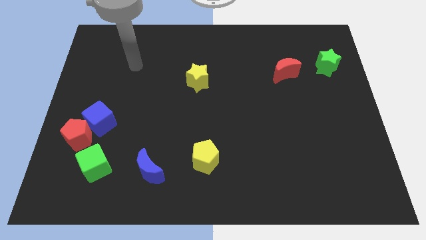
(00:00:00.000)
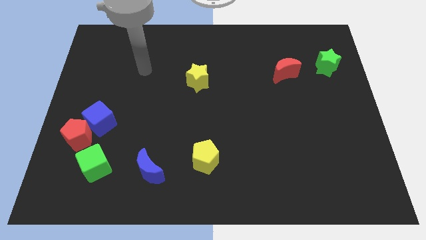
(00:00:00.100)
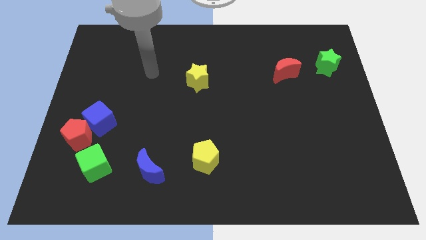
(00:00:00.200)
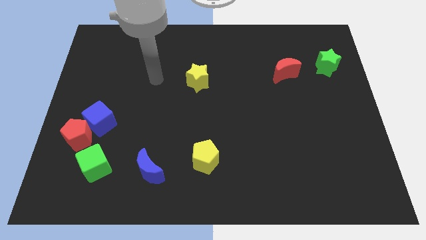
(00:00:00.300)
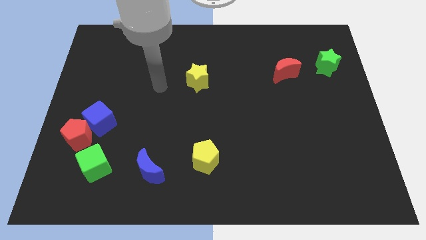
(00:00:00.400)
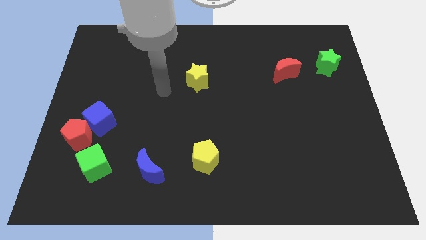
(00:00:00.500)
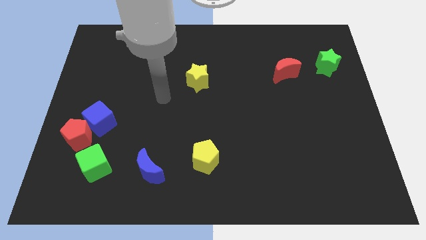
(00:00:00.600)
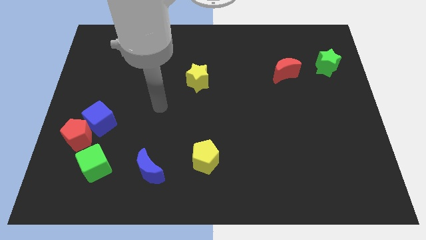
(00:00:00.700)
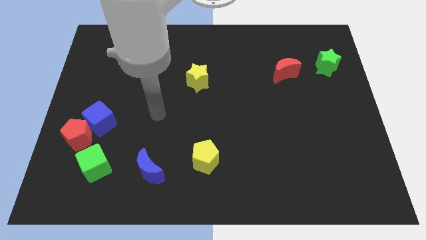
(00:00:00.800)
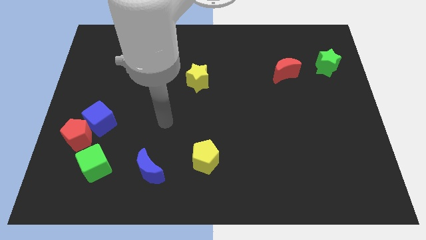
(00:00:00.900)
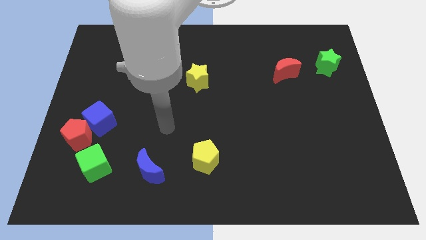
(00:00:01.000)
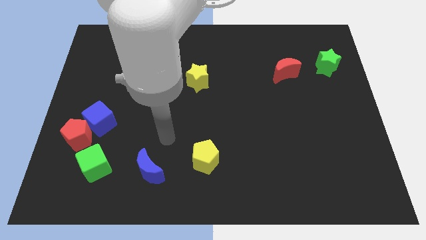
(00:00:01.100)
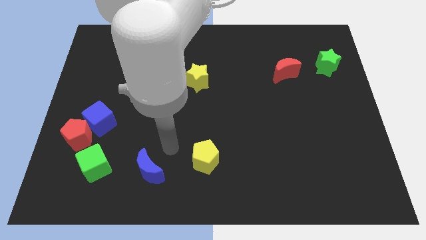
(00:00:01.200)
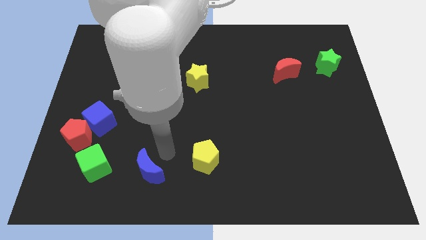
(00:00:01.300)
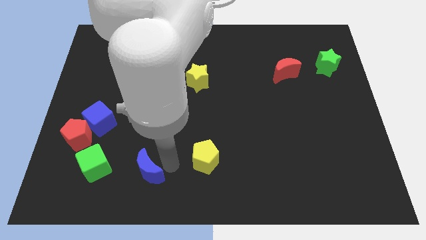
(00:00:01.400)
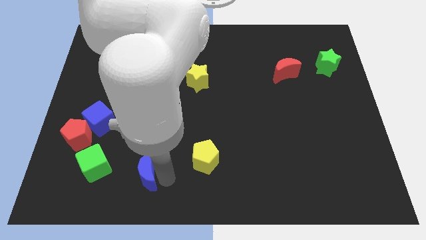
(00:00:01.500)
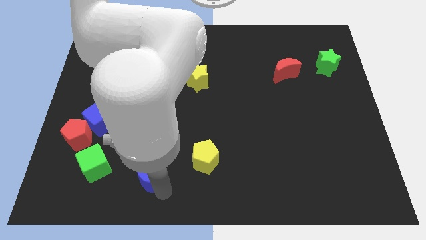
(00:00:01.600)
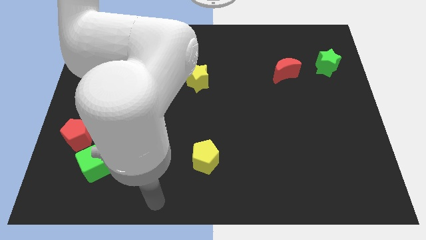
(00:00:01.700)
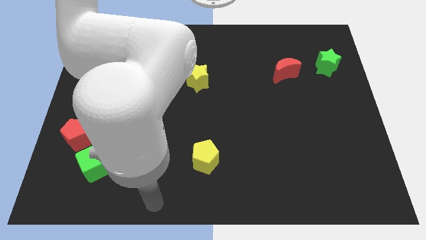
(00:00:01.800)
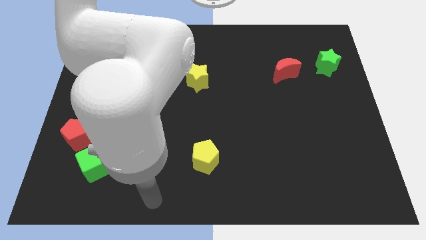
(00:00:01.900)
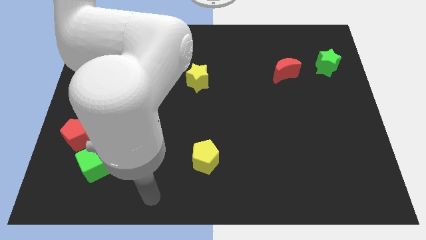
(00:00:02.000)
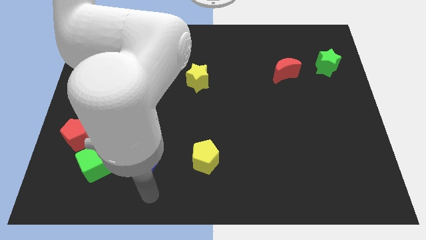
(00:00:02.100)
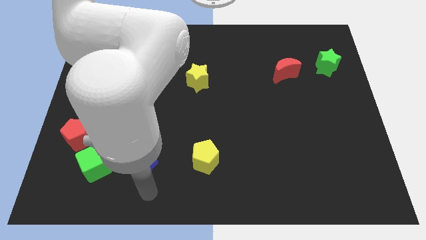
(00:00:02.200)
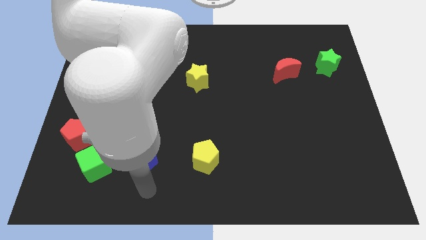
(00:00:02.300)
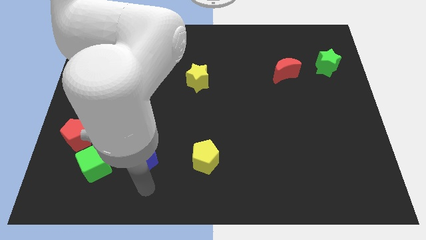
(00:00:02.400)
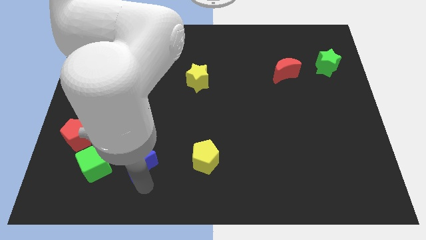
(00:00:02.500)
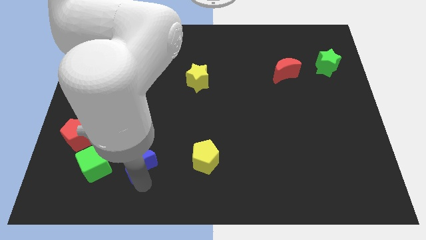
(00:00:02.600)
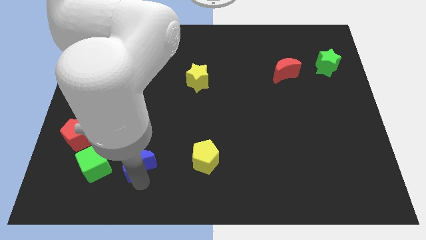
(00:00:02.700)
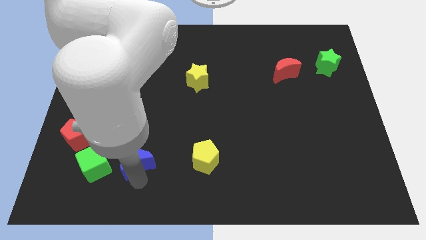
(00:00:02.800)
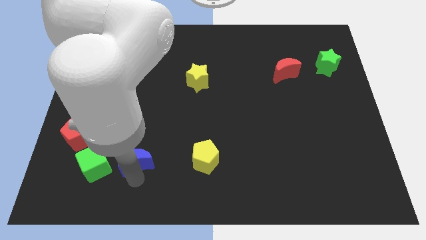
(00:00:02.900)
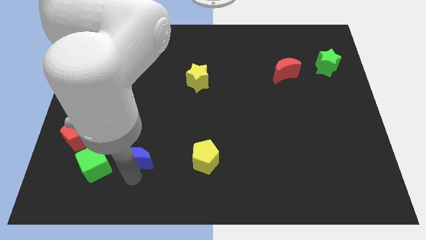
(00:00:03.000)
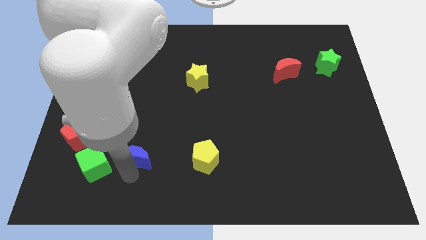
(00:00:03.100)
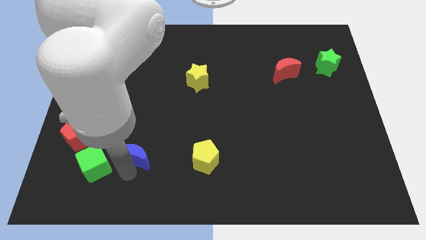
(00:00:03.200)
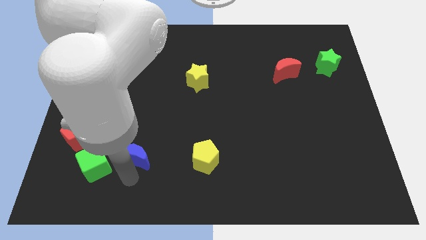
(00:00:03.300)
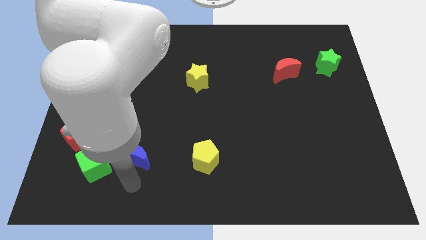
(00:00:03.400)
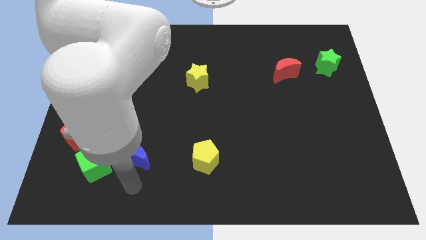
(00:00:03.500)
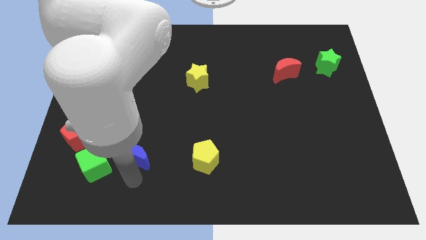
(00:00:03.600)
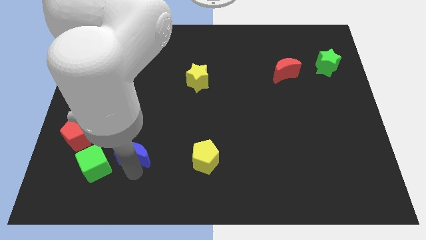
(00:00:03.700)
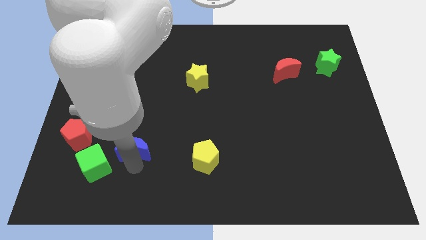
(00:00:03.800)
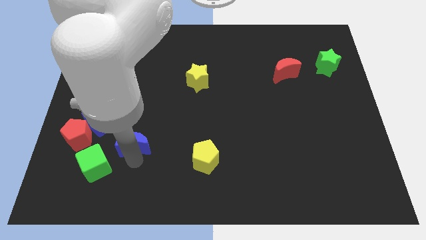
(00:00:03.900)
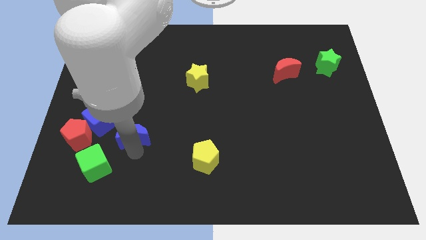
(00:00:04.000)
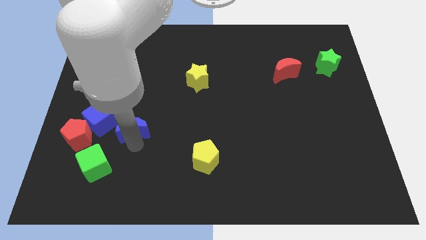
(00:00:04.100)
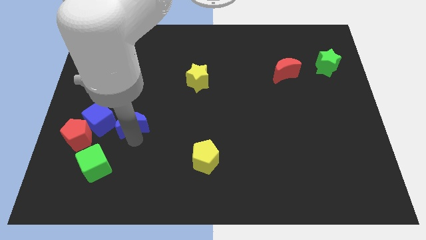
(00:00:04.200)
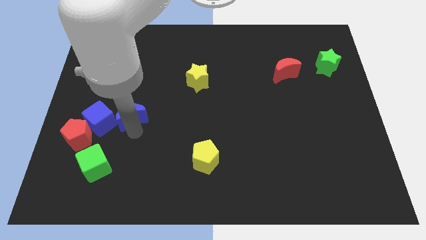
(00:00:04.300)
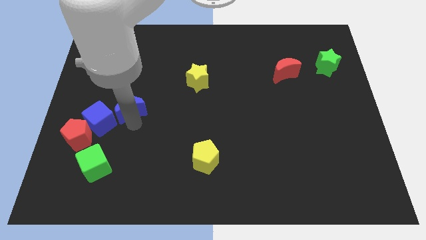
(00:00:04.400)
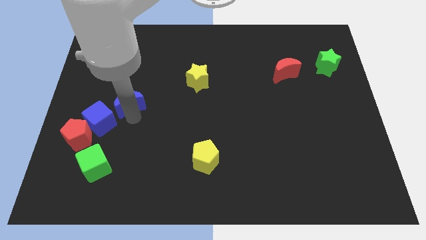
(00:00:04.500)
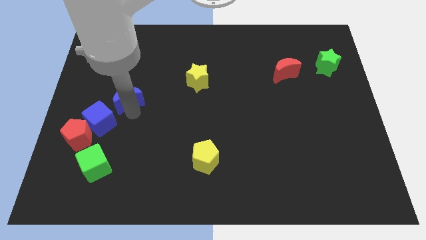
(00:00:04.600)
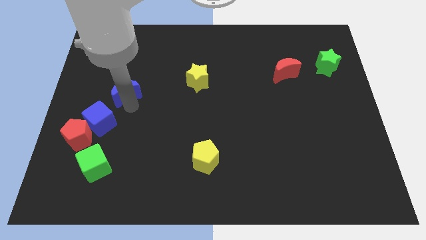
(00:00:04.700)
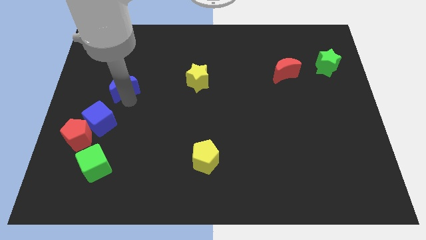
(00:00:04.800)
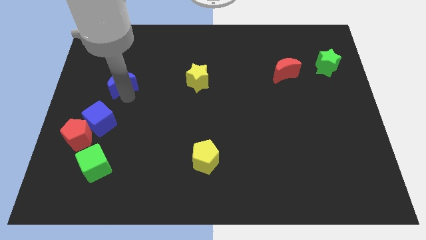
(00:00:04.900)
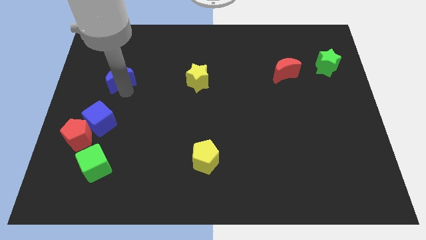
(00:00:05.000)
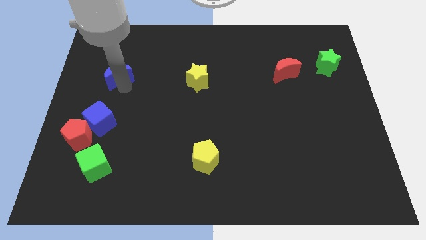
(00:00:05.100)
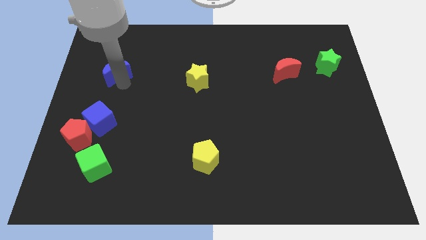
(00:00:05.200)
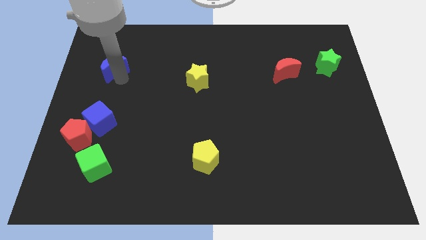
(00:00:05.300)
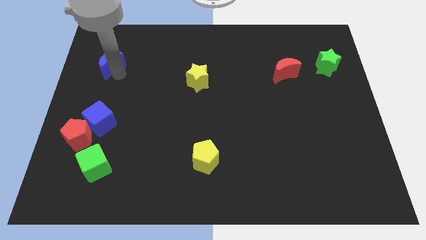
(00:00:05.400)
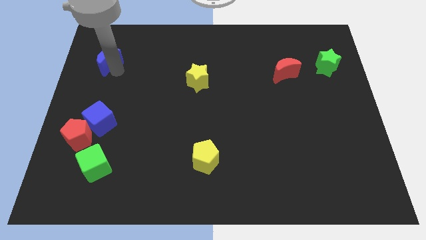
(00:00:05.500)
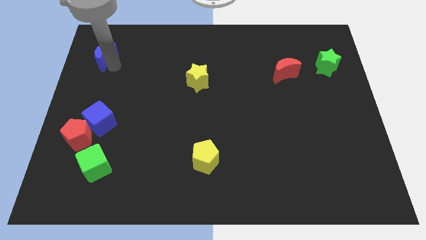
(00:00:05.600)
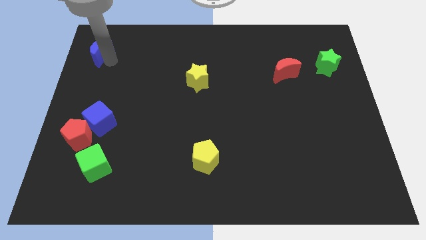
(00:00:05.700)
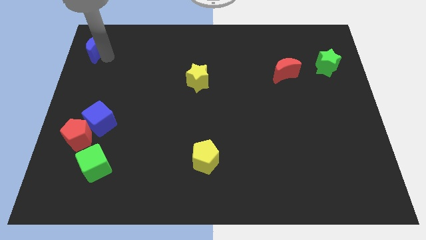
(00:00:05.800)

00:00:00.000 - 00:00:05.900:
put the blue moon to the top left
